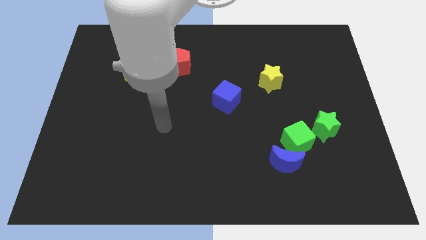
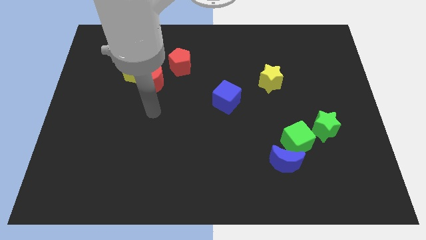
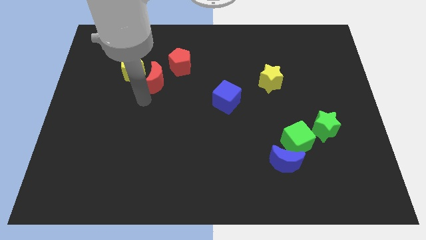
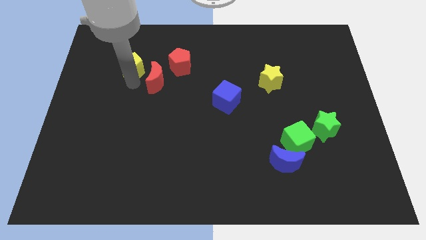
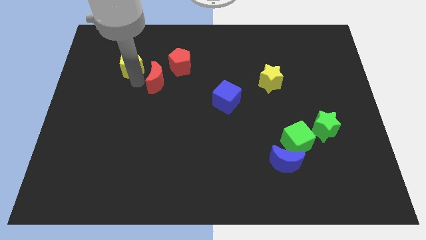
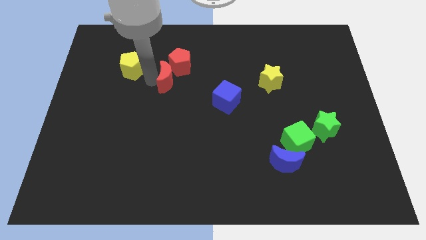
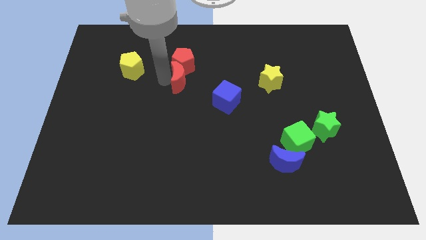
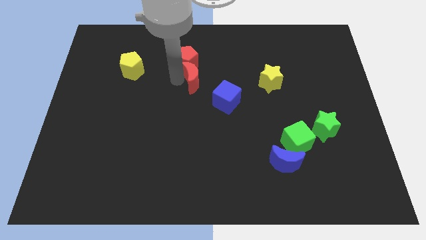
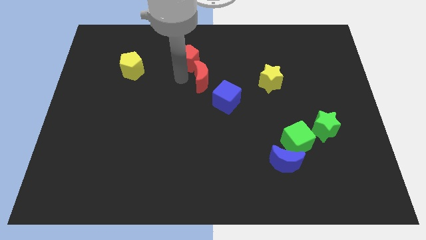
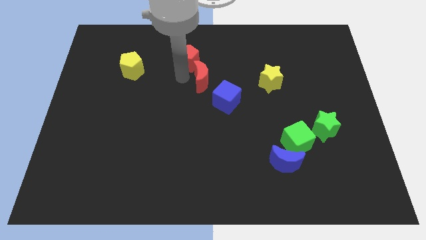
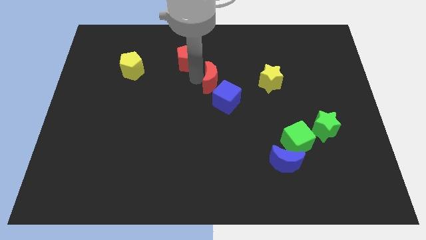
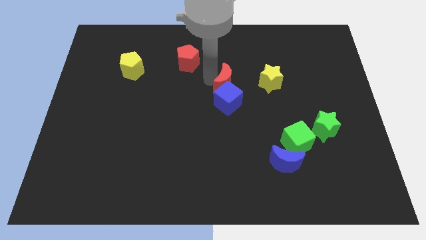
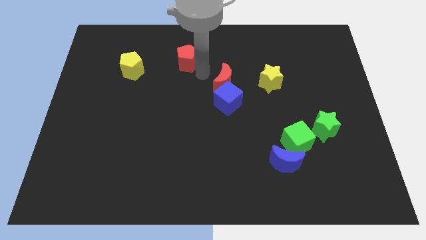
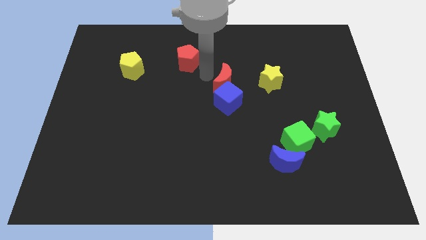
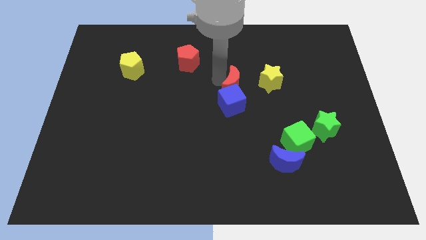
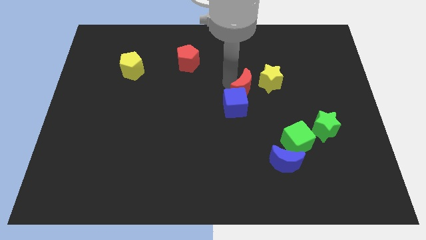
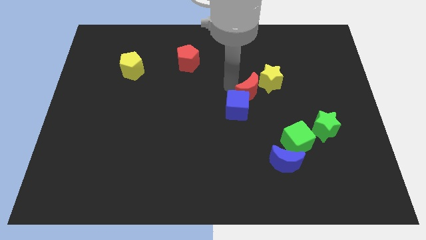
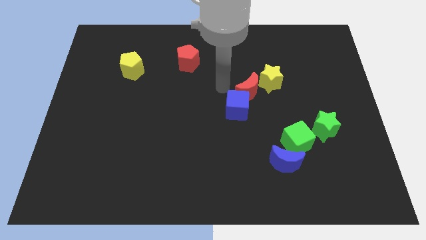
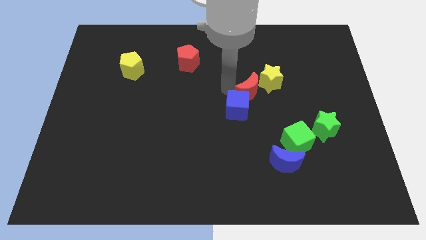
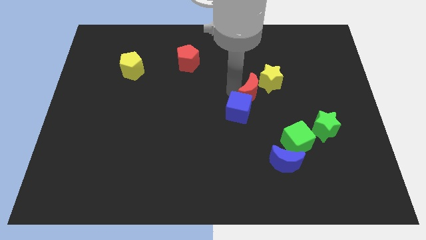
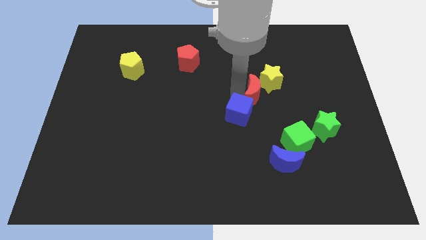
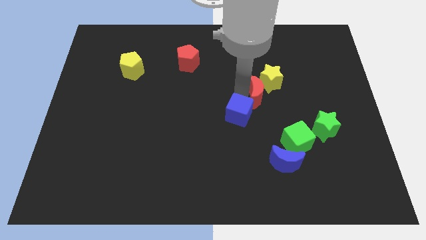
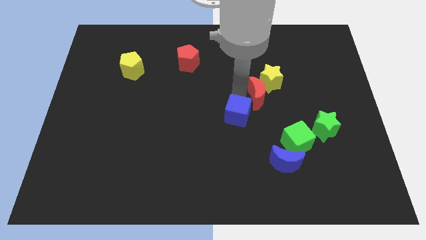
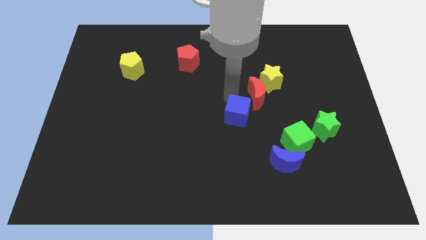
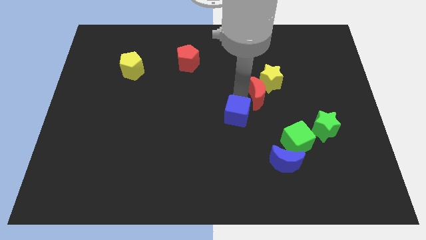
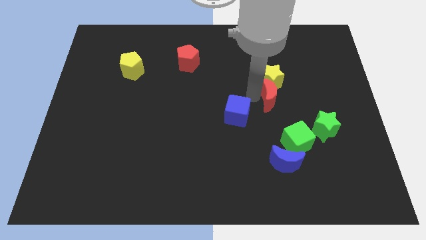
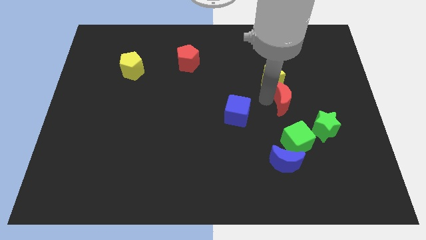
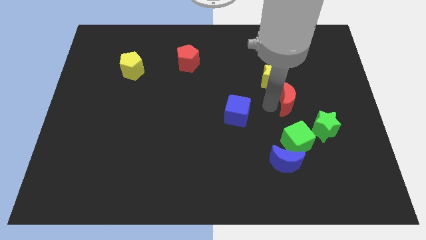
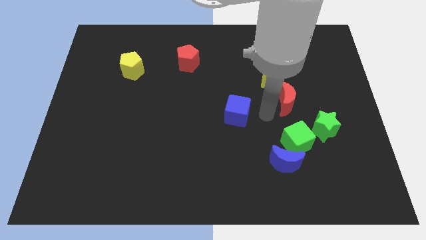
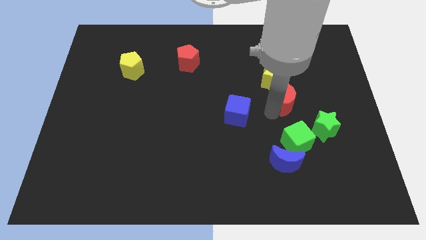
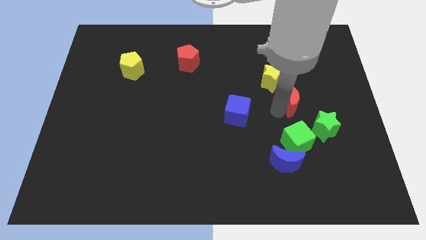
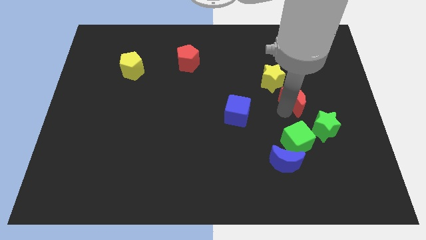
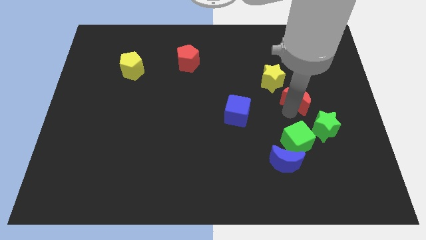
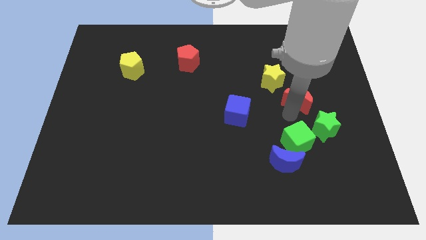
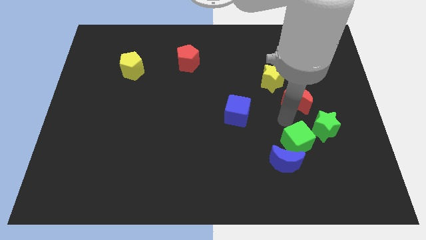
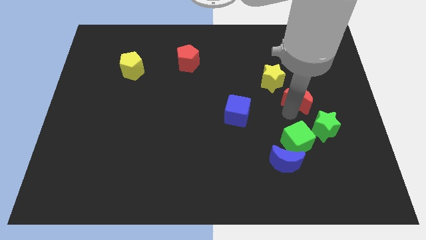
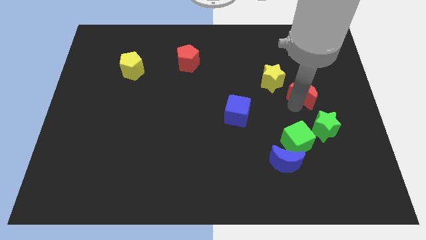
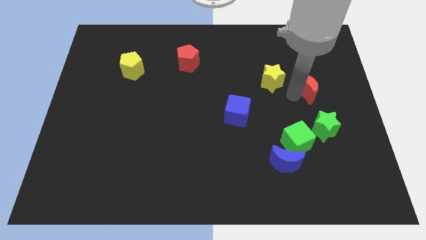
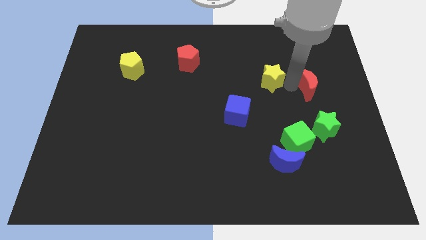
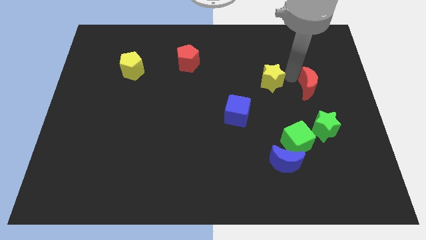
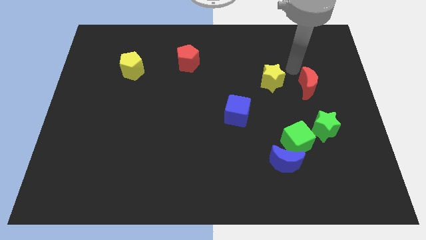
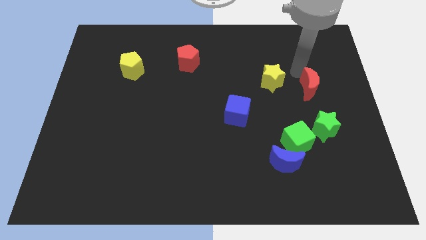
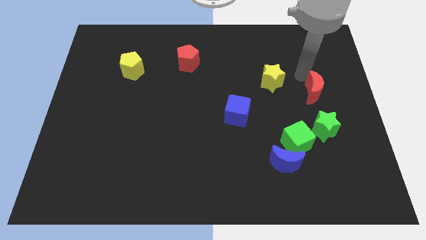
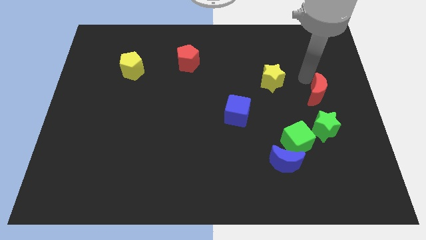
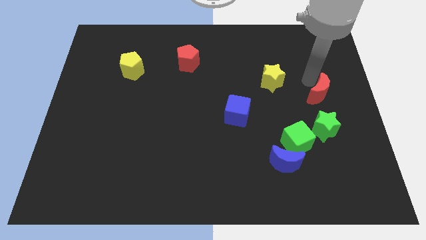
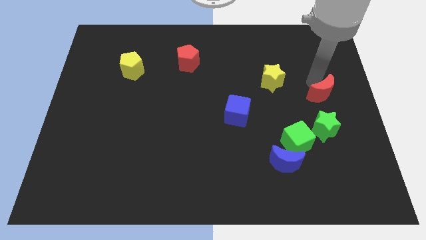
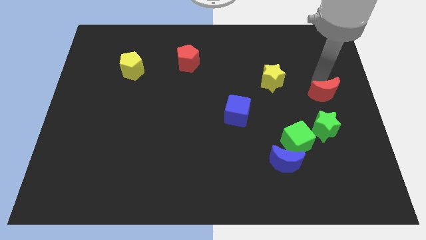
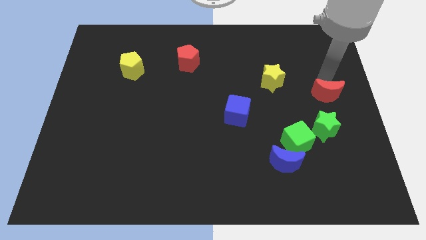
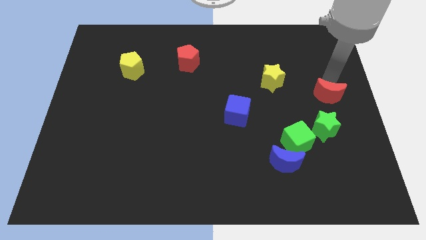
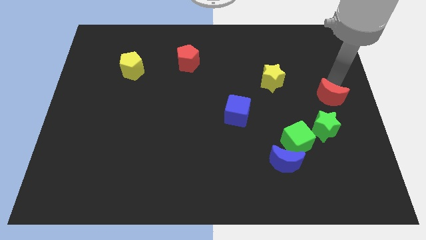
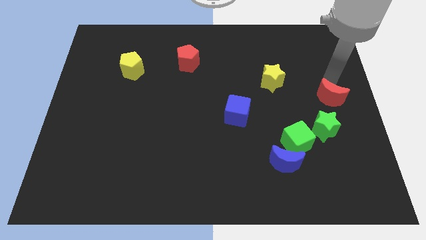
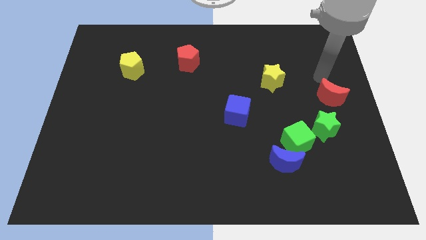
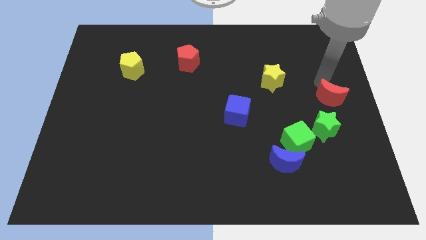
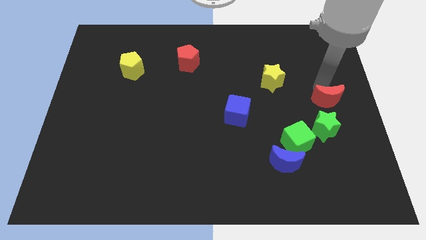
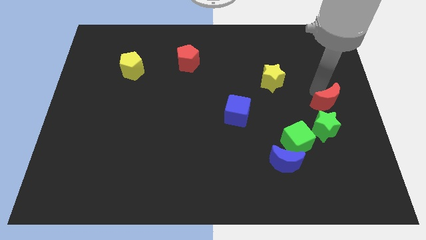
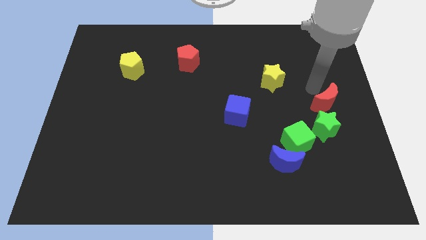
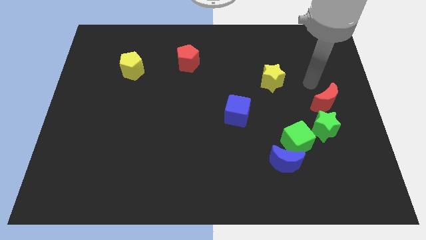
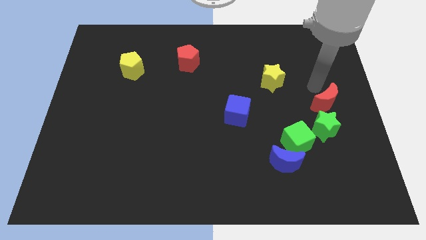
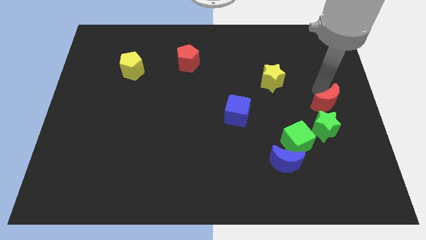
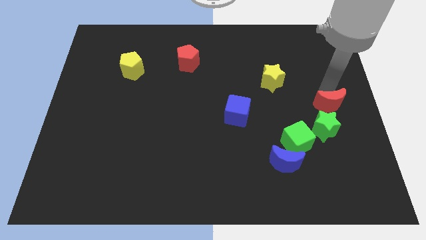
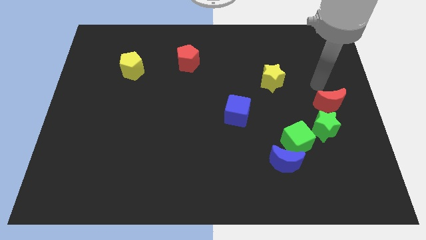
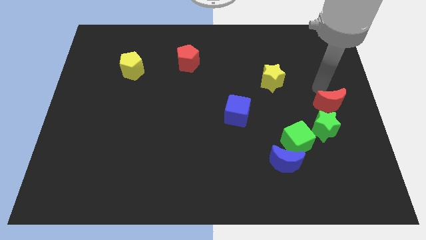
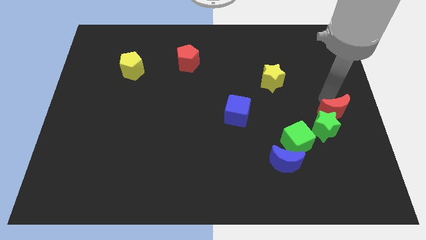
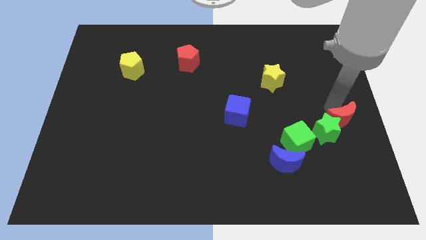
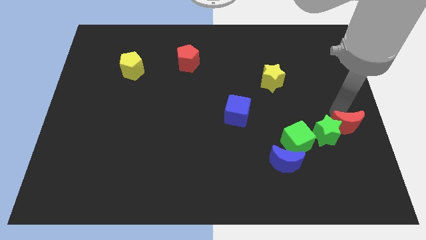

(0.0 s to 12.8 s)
put the red moon right of the green cube

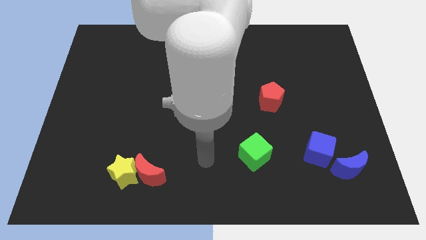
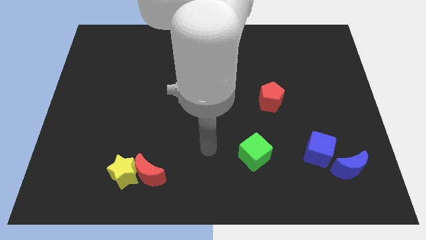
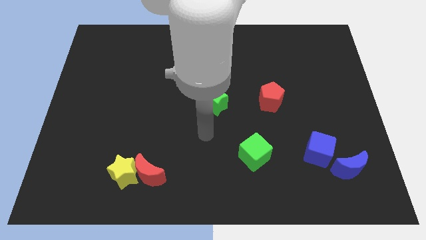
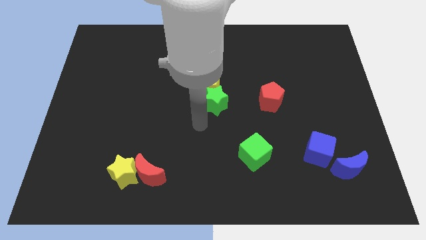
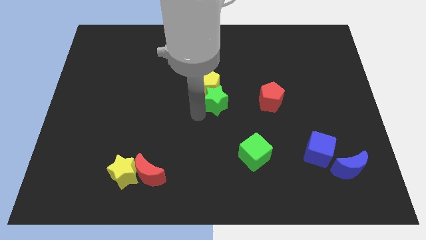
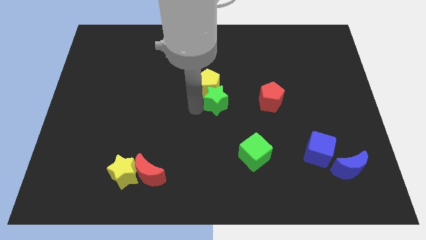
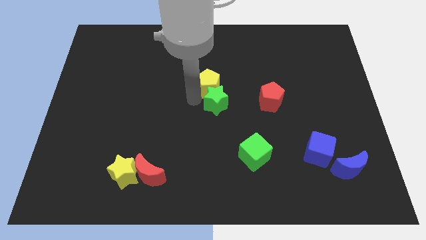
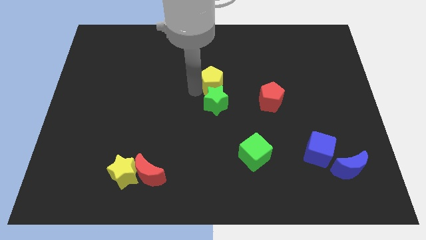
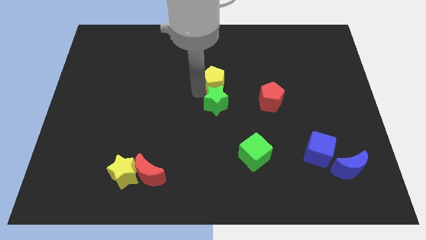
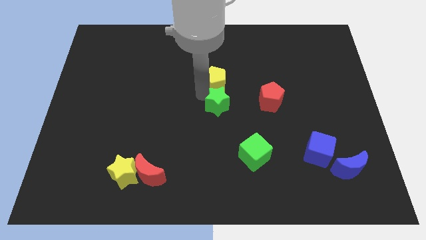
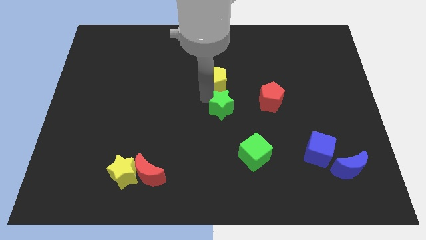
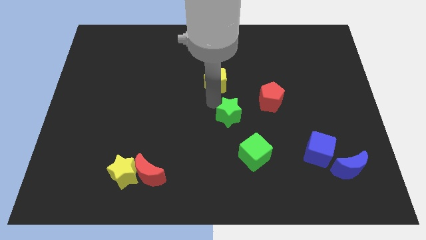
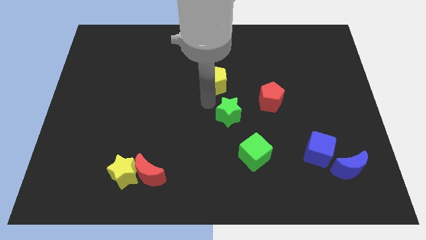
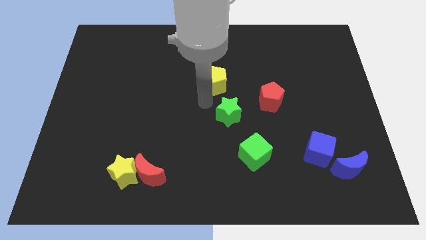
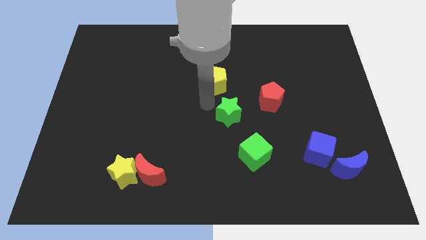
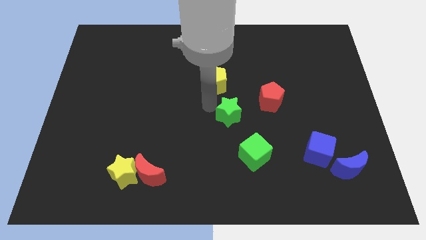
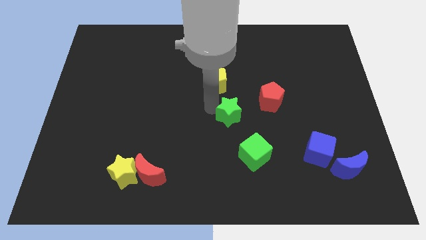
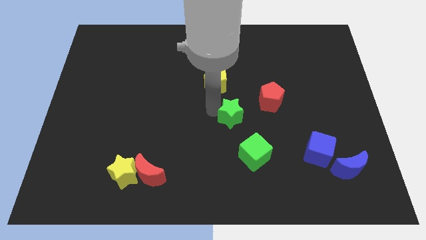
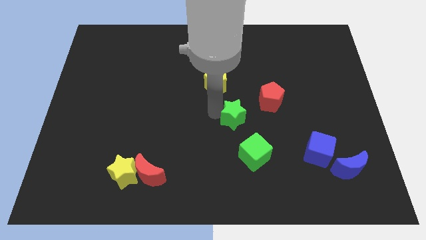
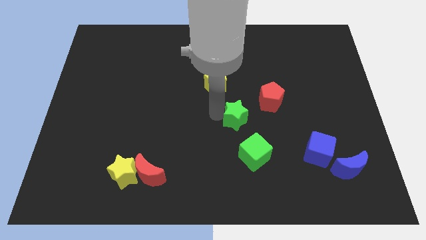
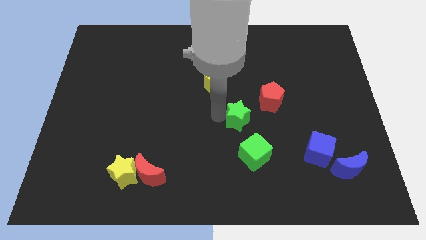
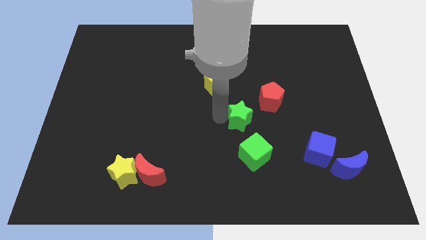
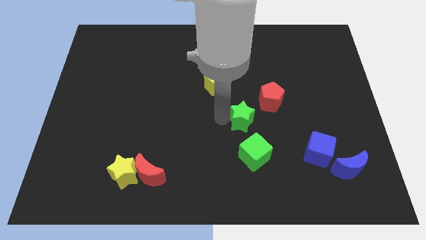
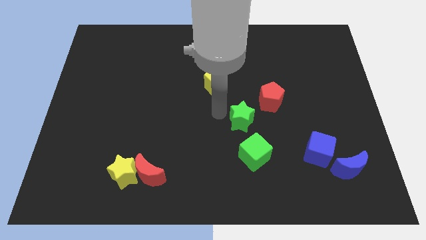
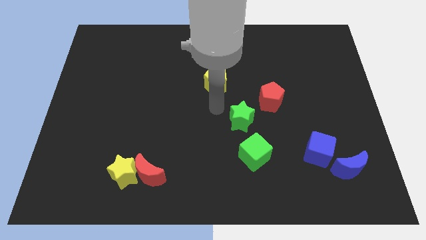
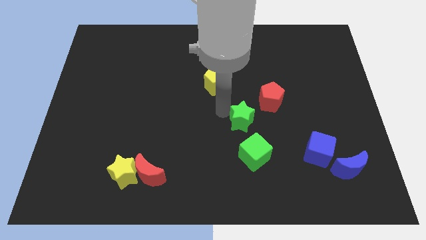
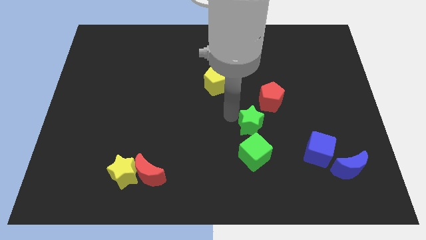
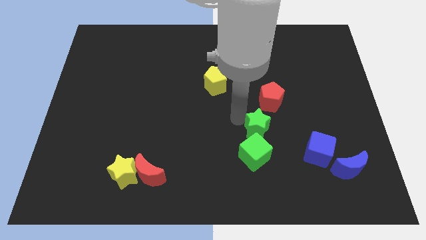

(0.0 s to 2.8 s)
put the green star to the bottom side of the red pentagon
